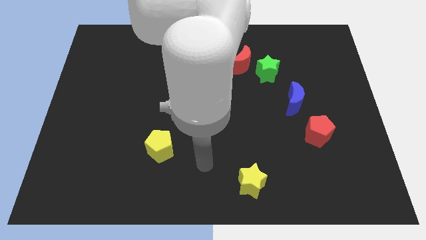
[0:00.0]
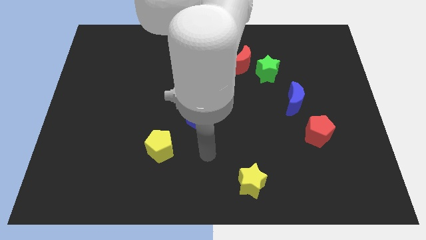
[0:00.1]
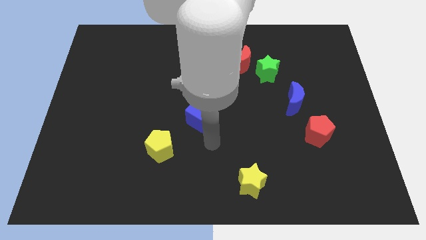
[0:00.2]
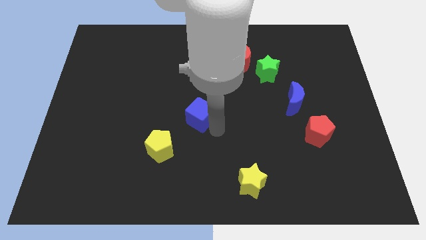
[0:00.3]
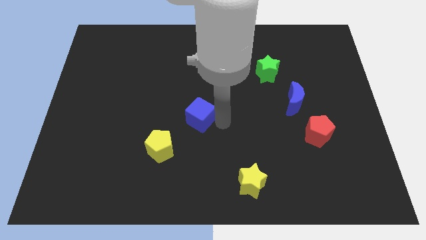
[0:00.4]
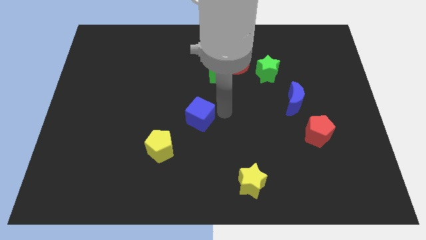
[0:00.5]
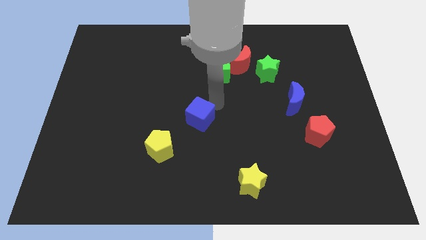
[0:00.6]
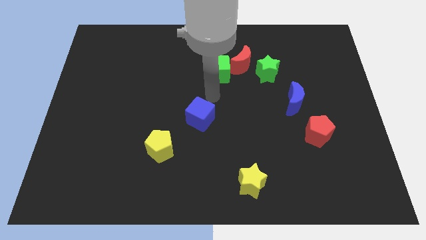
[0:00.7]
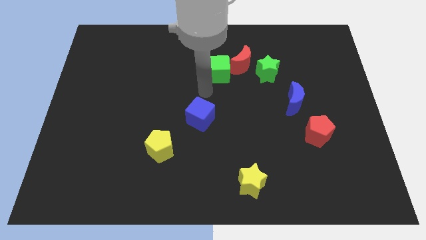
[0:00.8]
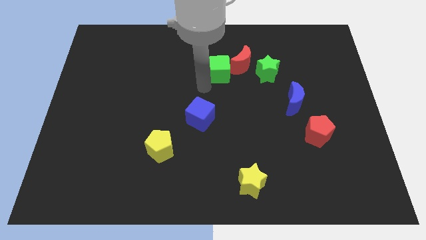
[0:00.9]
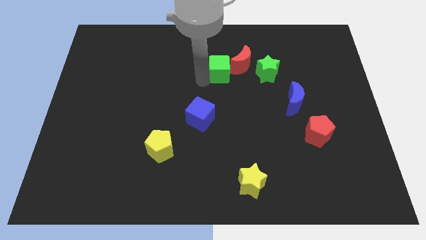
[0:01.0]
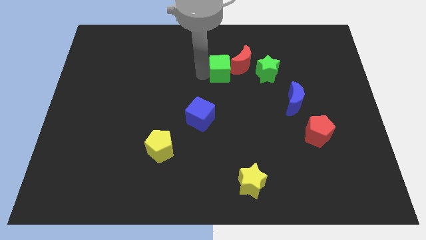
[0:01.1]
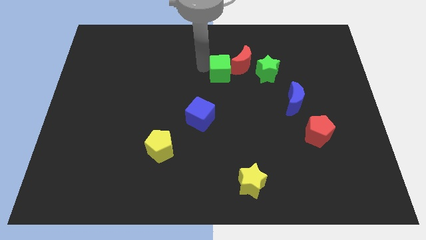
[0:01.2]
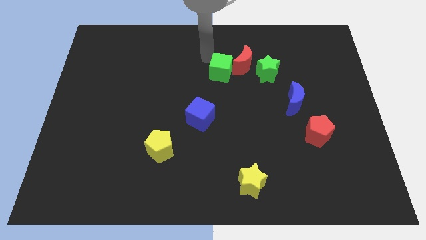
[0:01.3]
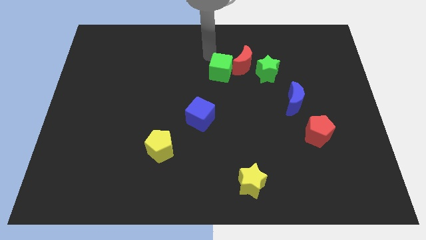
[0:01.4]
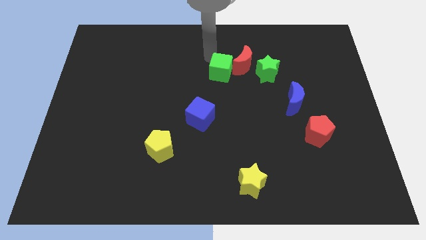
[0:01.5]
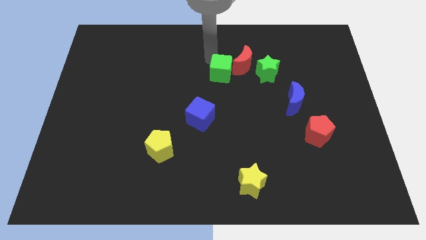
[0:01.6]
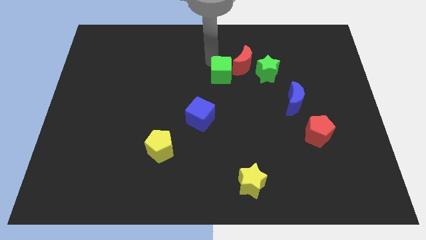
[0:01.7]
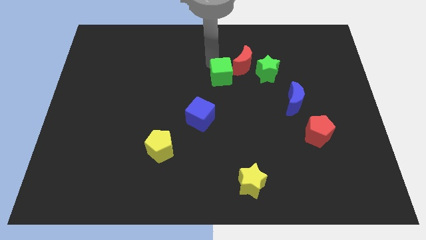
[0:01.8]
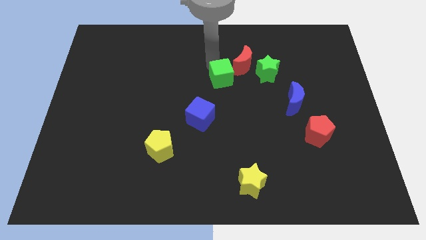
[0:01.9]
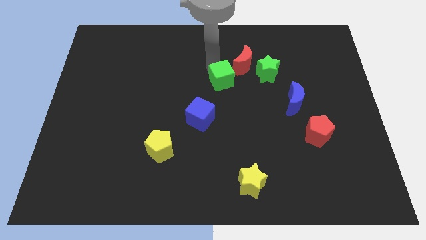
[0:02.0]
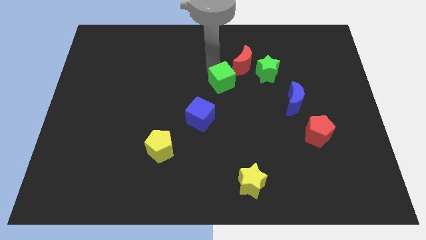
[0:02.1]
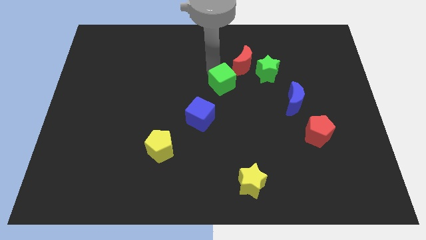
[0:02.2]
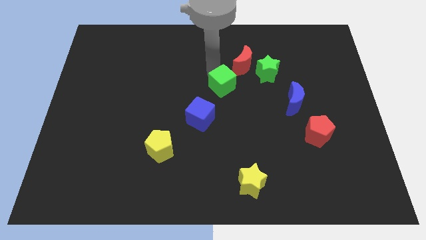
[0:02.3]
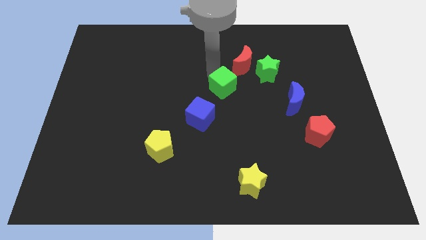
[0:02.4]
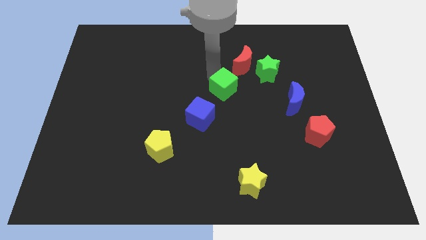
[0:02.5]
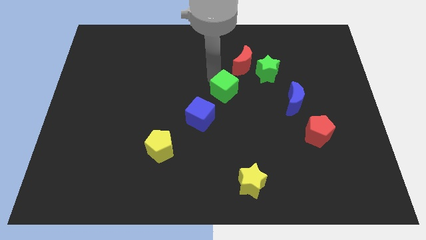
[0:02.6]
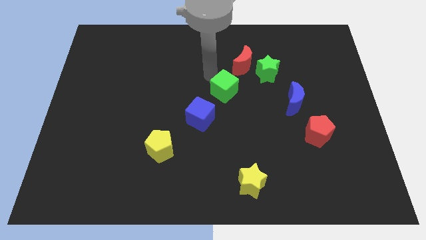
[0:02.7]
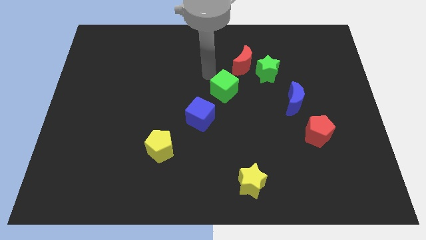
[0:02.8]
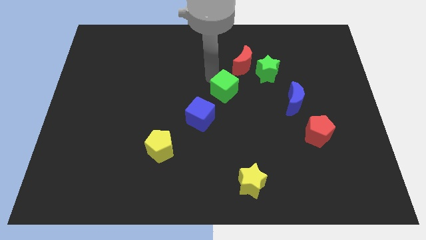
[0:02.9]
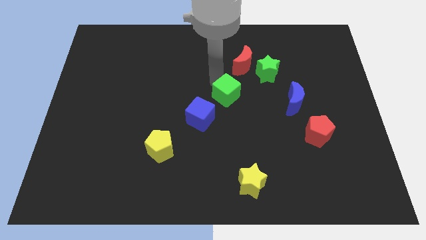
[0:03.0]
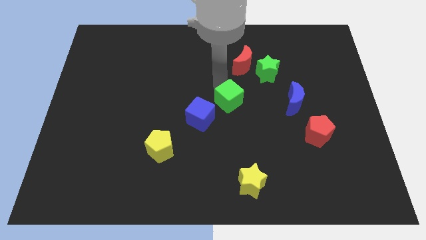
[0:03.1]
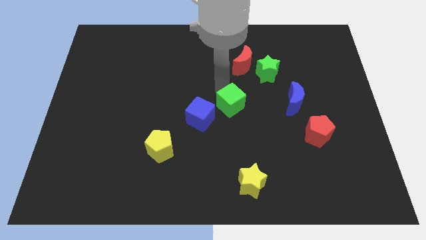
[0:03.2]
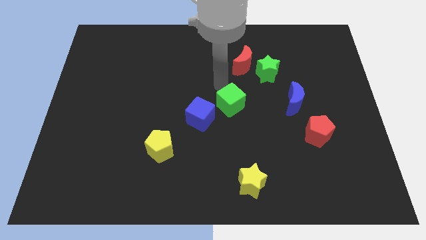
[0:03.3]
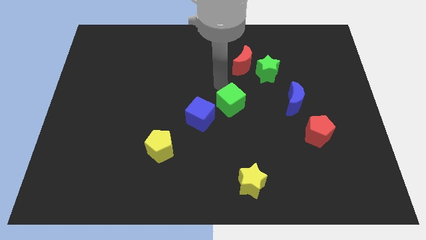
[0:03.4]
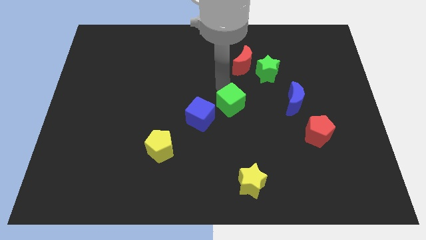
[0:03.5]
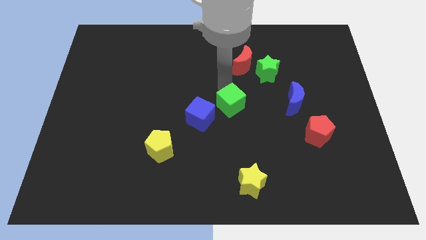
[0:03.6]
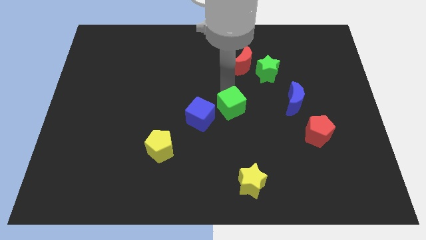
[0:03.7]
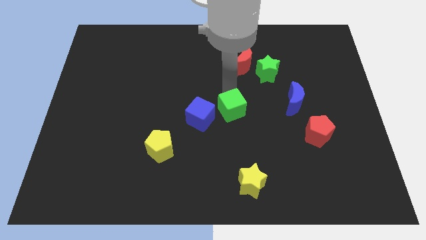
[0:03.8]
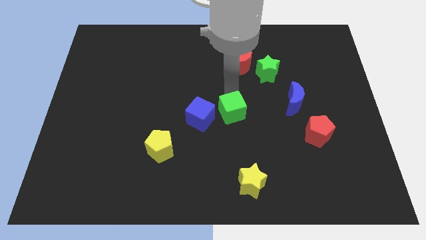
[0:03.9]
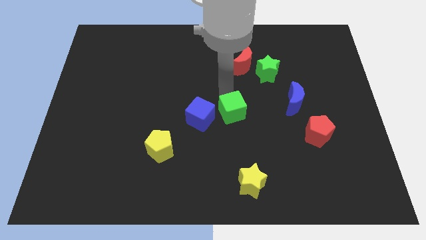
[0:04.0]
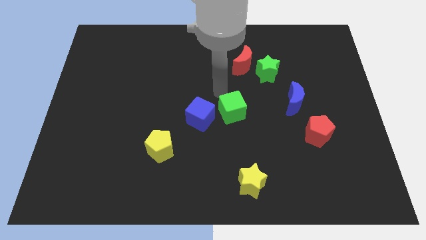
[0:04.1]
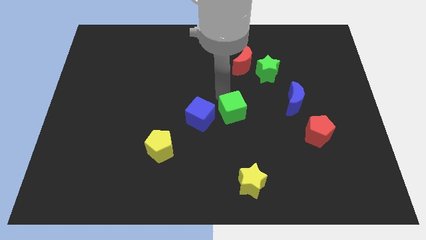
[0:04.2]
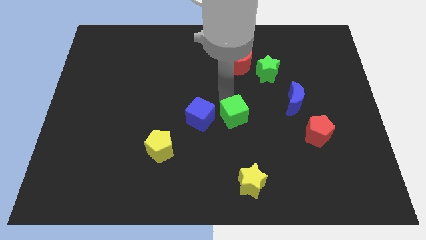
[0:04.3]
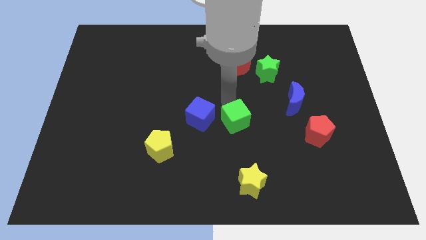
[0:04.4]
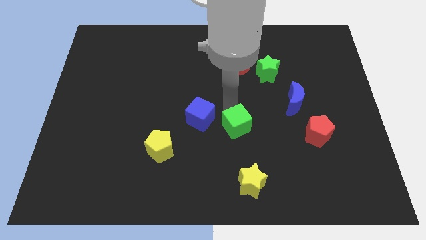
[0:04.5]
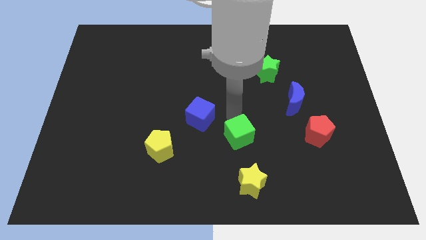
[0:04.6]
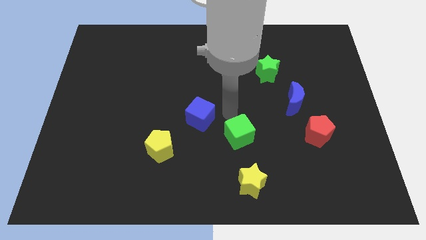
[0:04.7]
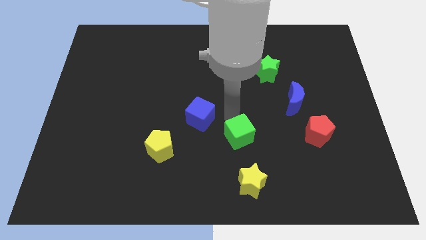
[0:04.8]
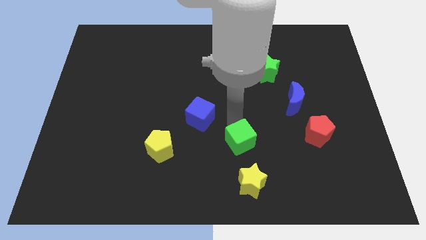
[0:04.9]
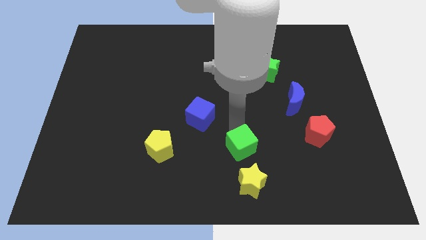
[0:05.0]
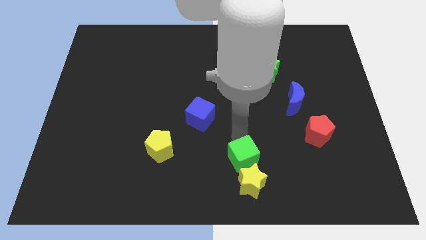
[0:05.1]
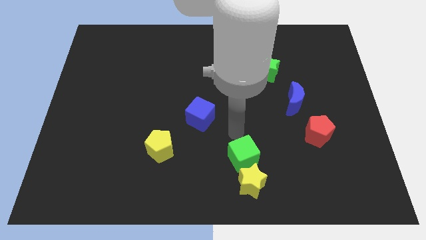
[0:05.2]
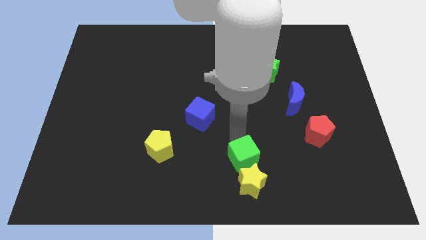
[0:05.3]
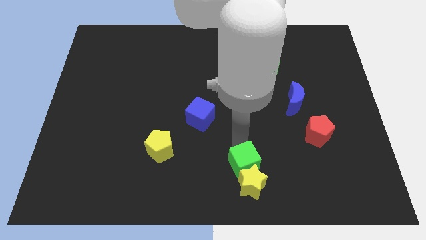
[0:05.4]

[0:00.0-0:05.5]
push the green cube to the yellow star
